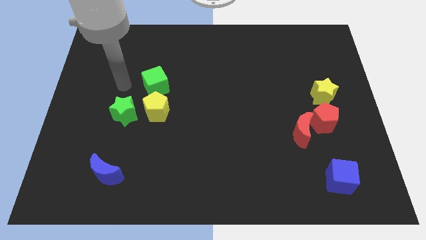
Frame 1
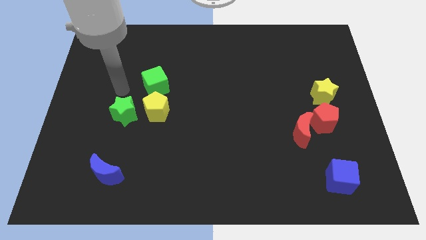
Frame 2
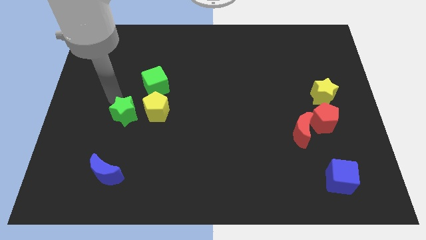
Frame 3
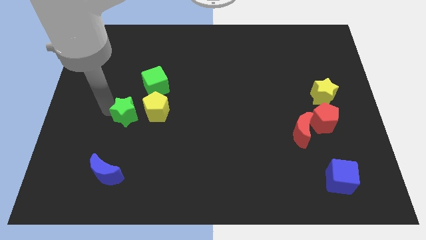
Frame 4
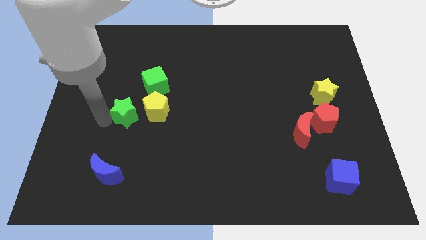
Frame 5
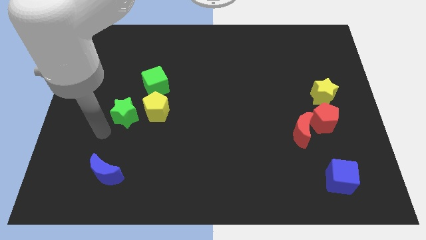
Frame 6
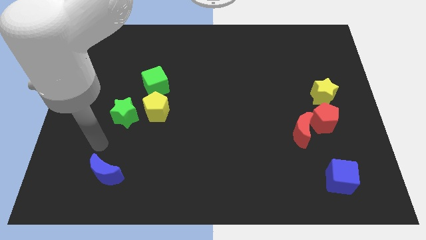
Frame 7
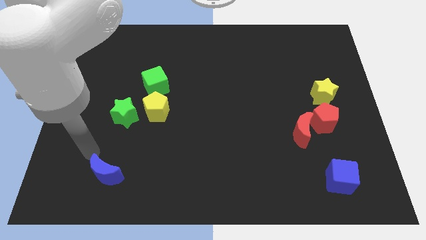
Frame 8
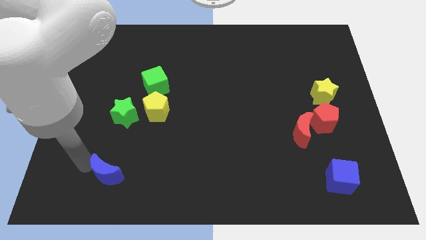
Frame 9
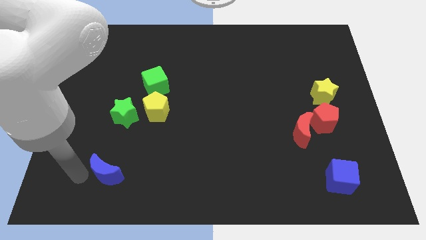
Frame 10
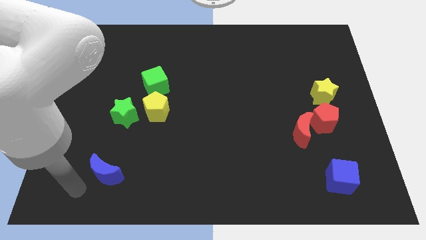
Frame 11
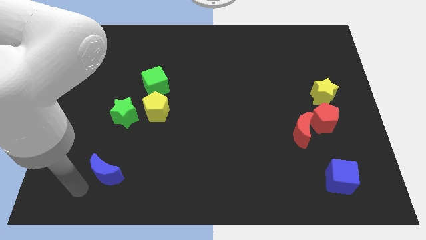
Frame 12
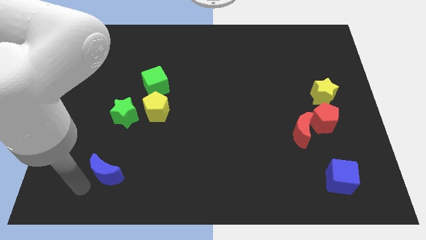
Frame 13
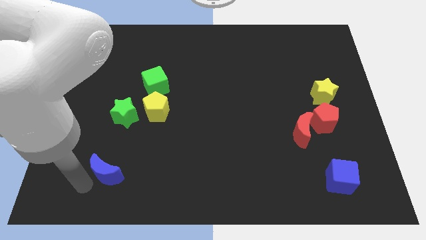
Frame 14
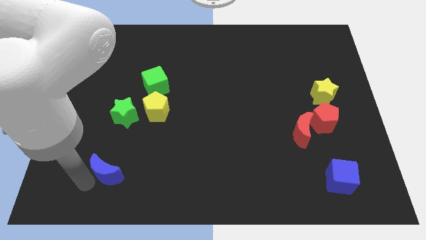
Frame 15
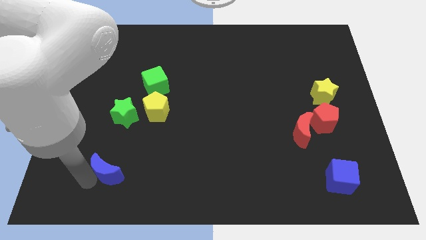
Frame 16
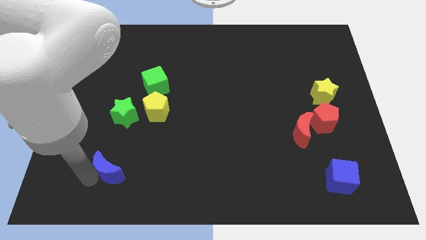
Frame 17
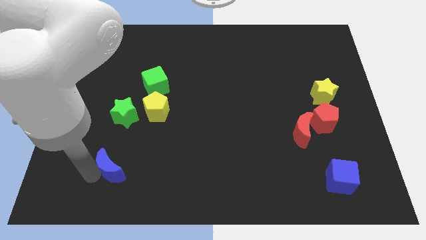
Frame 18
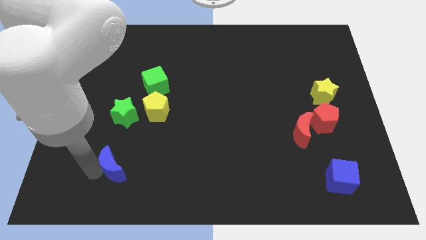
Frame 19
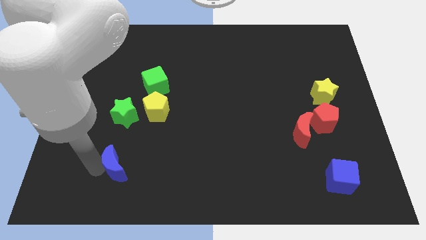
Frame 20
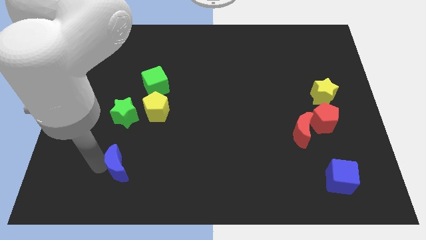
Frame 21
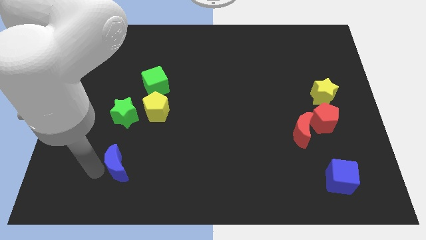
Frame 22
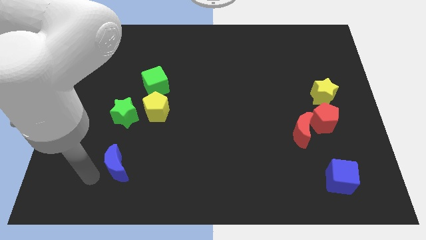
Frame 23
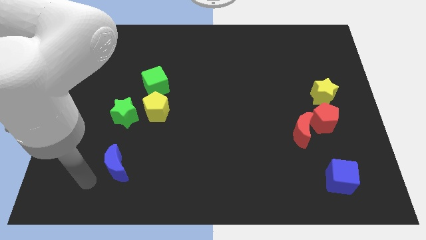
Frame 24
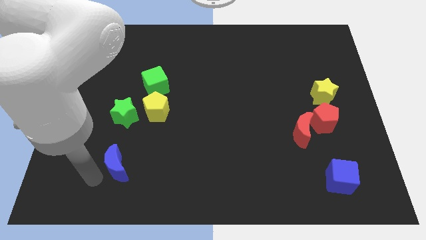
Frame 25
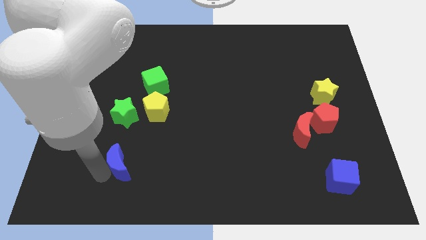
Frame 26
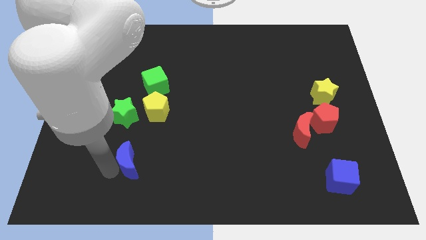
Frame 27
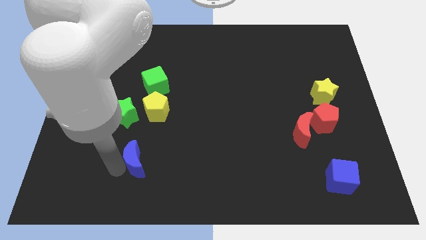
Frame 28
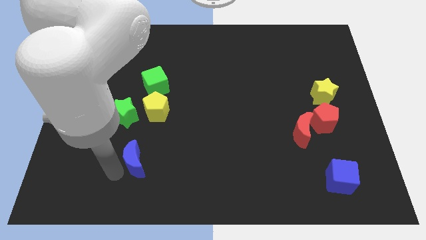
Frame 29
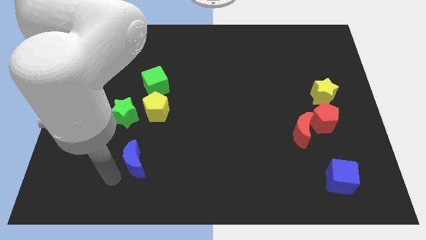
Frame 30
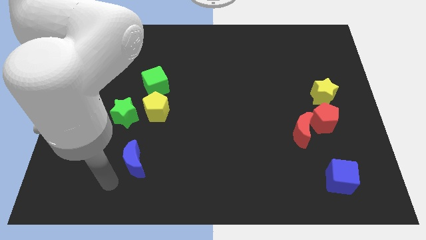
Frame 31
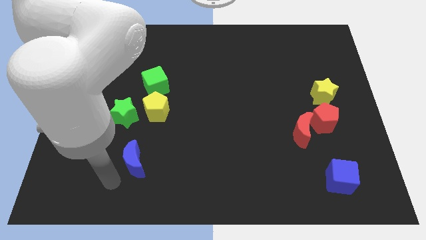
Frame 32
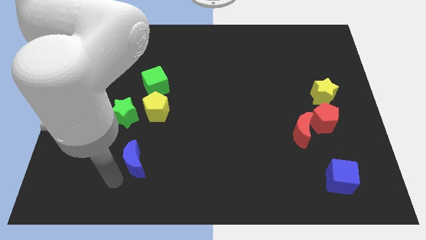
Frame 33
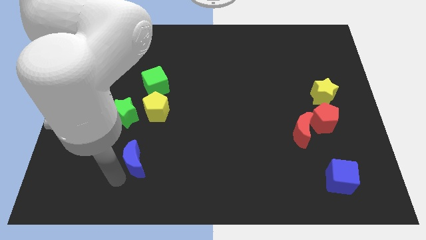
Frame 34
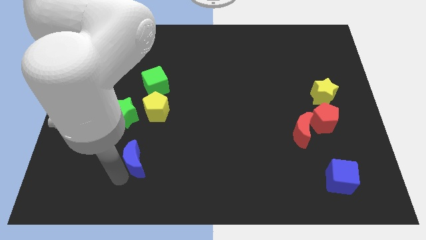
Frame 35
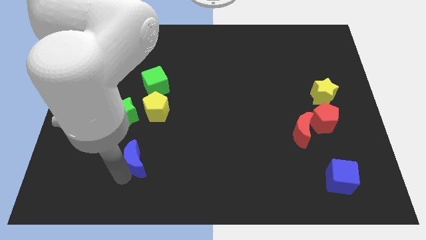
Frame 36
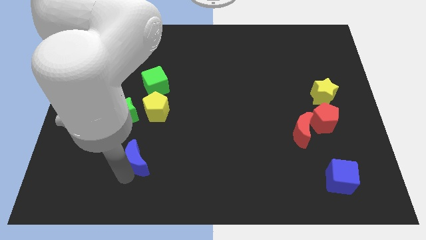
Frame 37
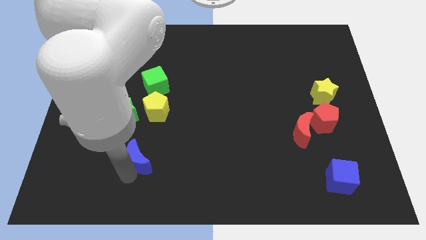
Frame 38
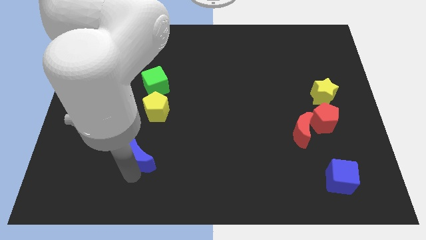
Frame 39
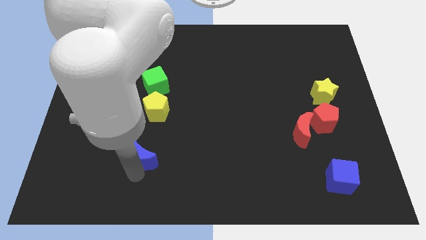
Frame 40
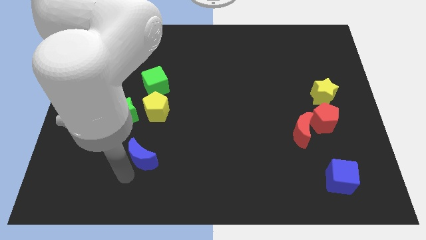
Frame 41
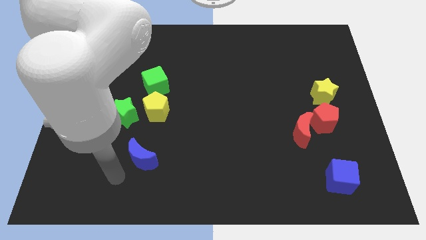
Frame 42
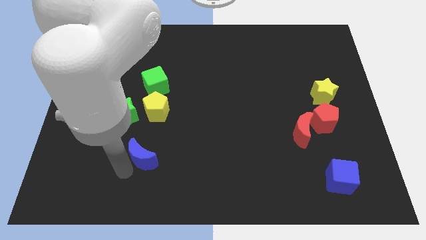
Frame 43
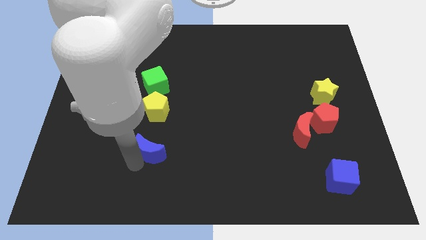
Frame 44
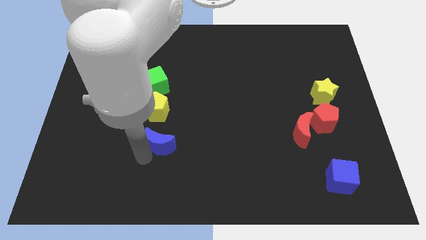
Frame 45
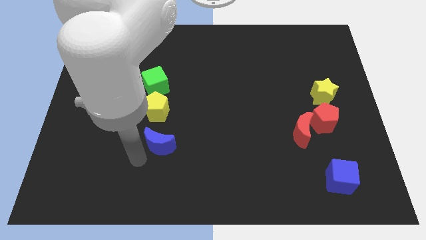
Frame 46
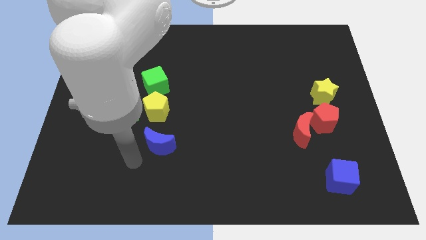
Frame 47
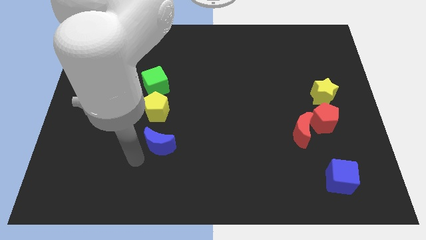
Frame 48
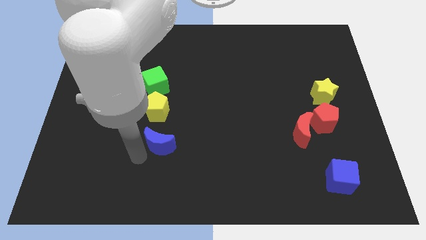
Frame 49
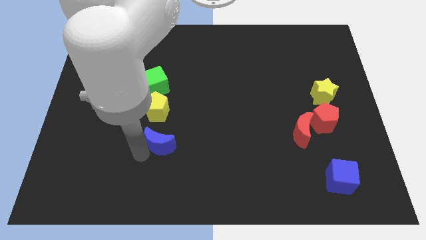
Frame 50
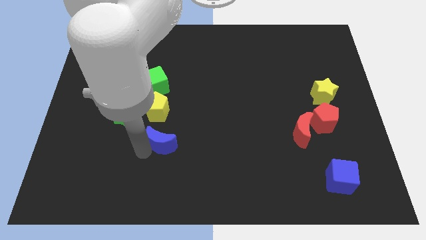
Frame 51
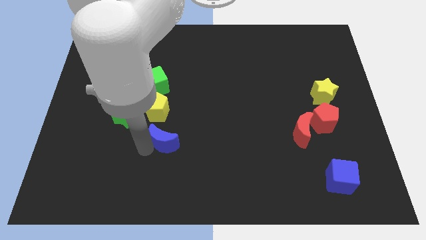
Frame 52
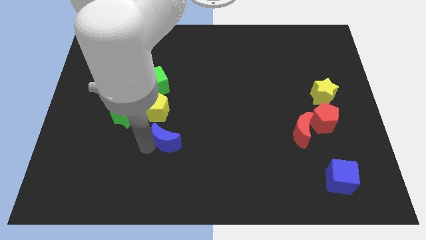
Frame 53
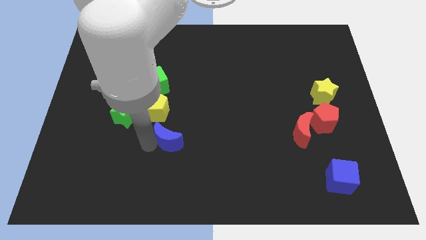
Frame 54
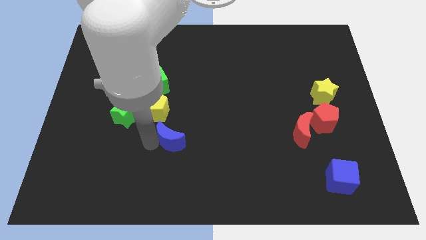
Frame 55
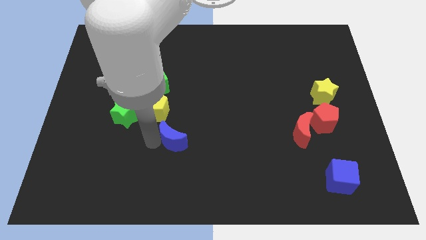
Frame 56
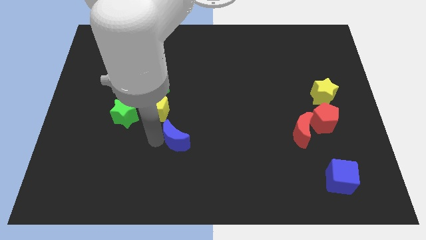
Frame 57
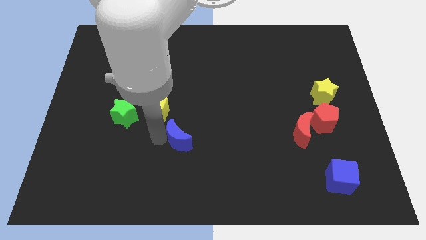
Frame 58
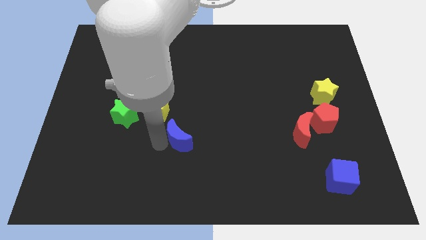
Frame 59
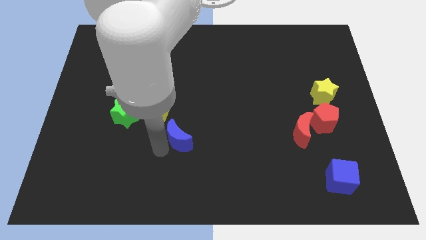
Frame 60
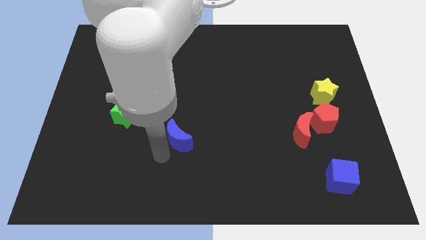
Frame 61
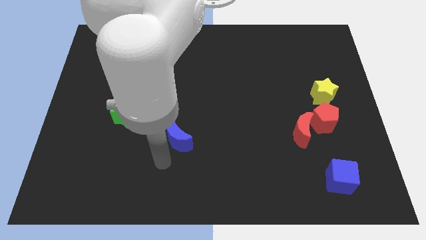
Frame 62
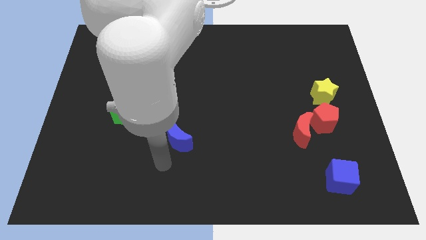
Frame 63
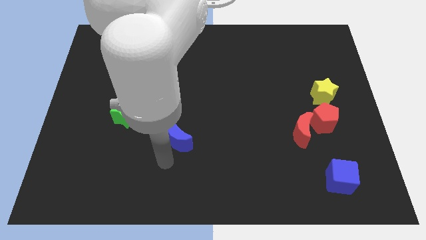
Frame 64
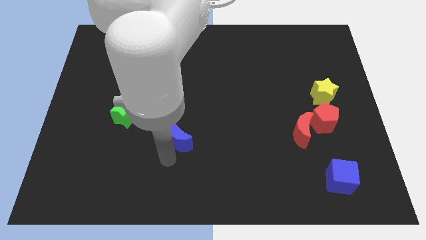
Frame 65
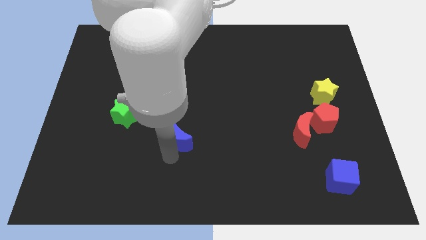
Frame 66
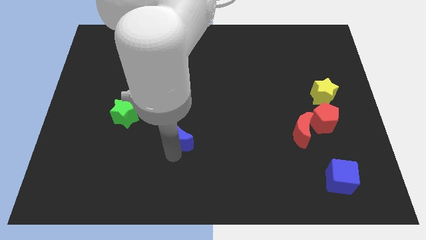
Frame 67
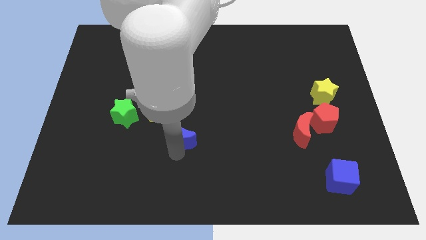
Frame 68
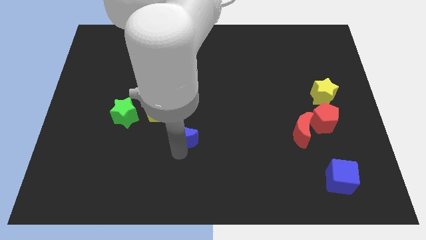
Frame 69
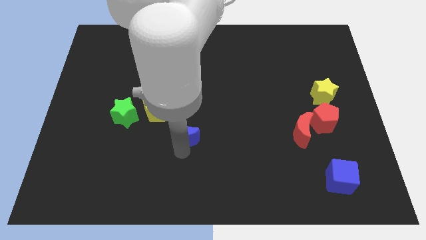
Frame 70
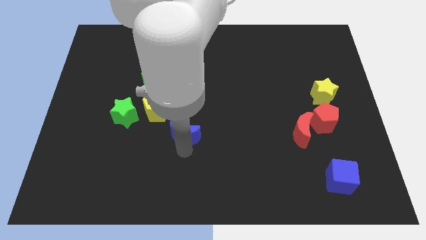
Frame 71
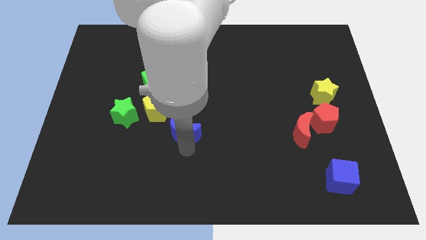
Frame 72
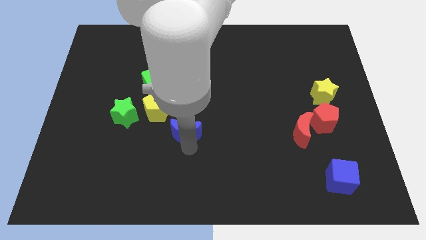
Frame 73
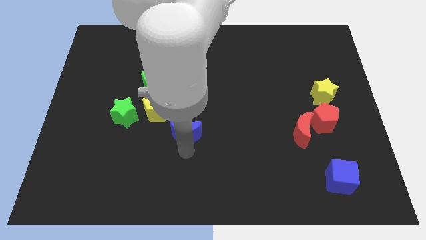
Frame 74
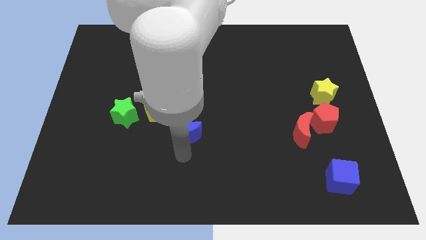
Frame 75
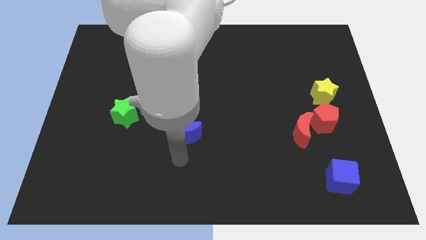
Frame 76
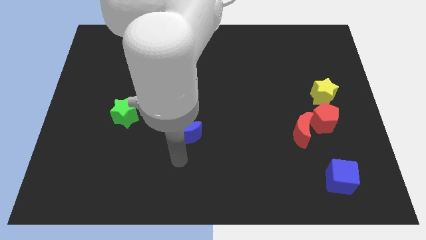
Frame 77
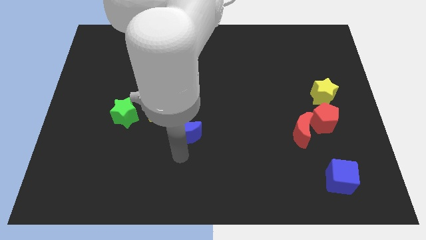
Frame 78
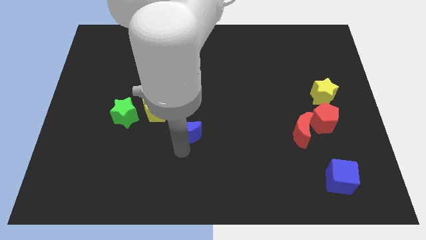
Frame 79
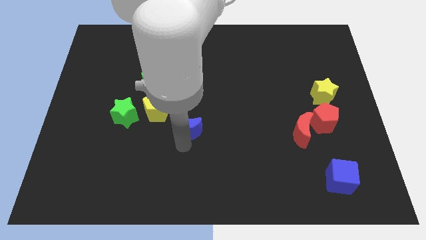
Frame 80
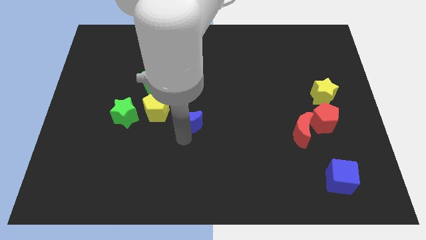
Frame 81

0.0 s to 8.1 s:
slide the blue moon right of the yellow pentagon
